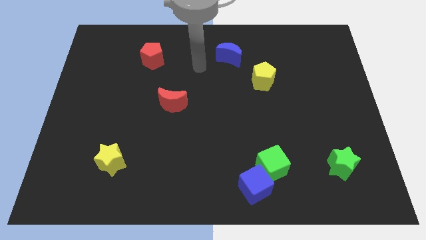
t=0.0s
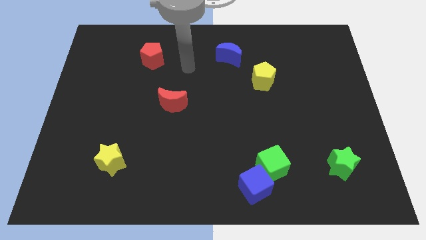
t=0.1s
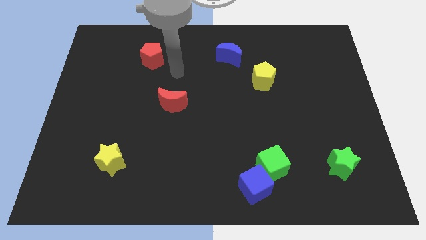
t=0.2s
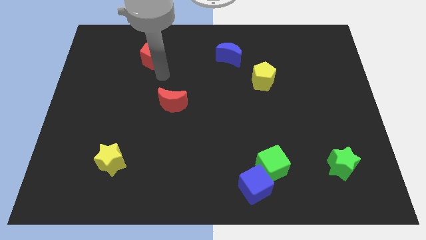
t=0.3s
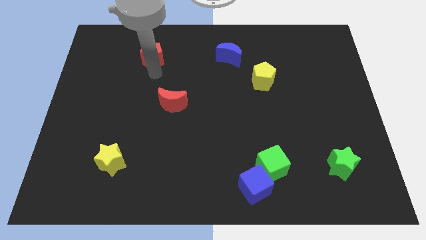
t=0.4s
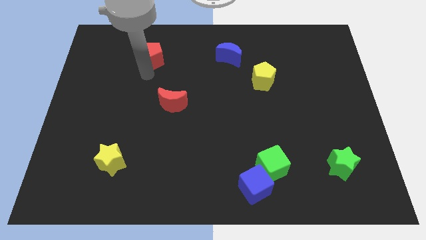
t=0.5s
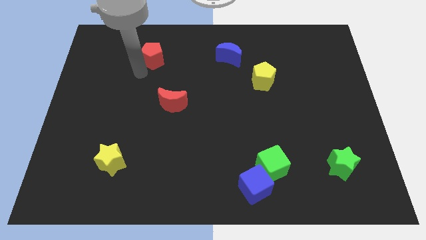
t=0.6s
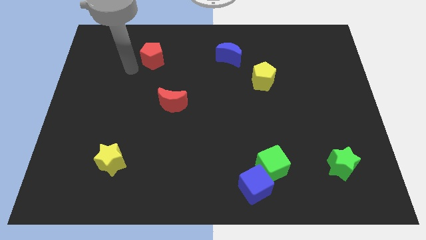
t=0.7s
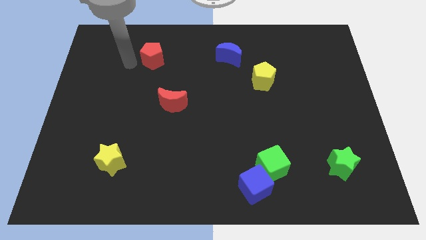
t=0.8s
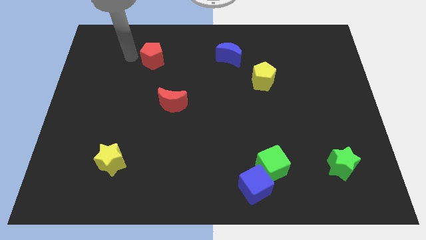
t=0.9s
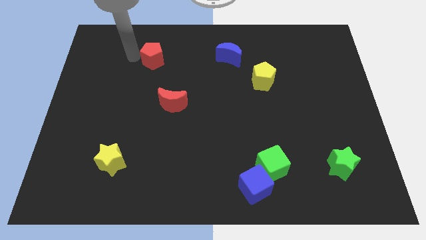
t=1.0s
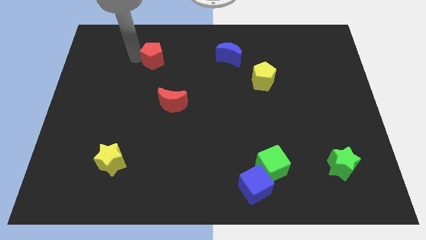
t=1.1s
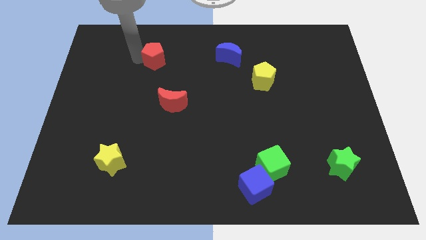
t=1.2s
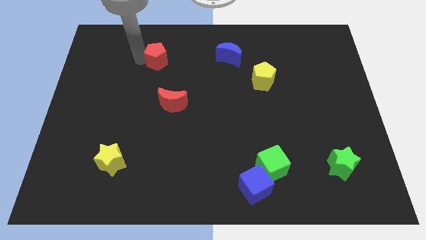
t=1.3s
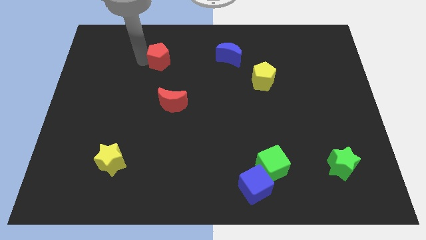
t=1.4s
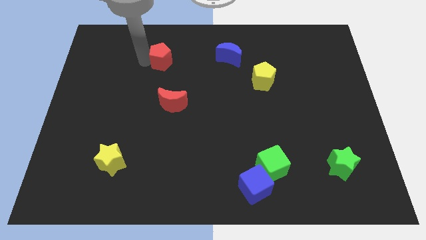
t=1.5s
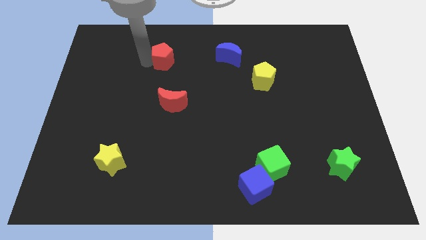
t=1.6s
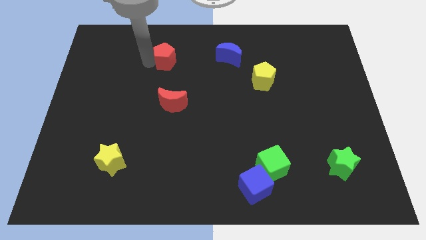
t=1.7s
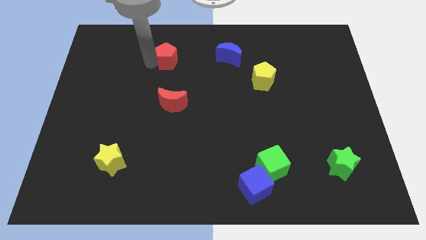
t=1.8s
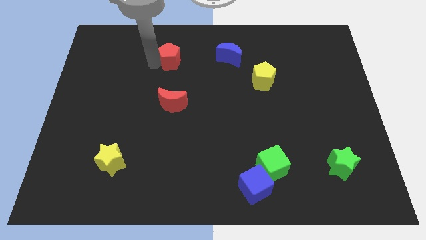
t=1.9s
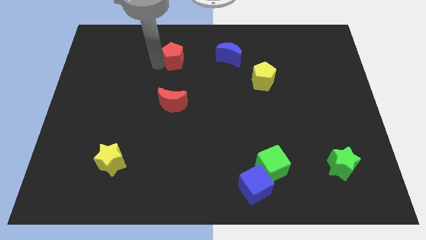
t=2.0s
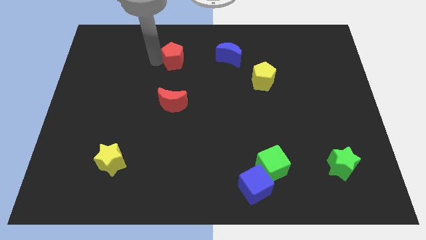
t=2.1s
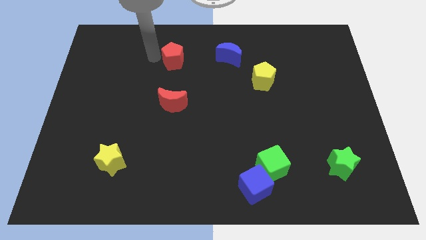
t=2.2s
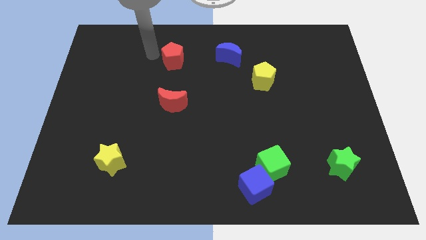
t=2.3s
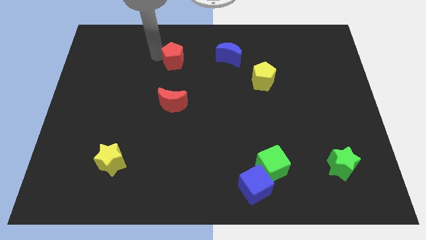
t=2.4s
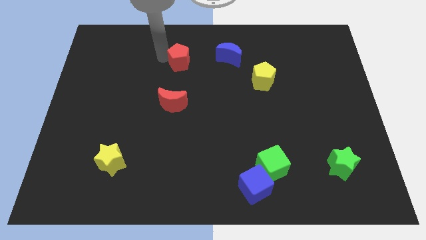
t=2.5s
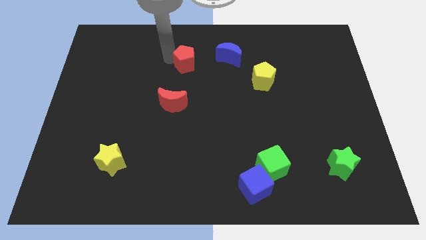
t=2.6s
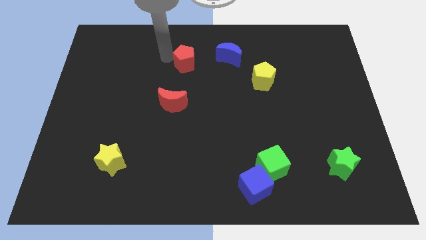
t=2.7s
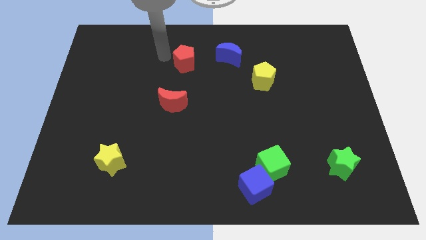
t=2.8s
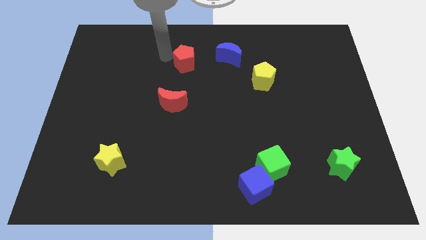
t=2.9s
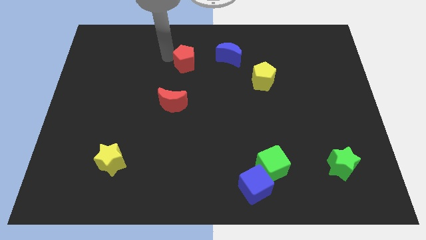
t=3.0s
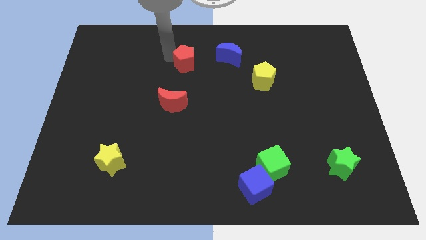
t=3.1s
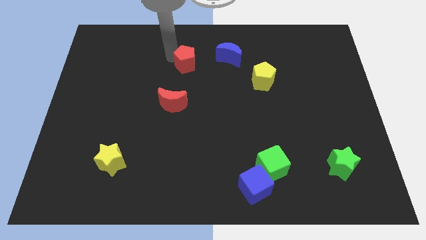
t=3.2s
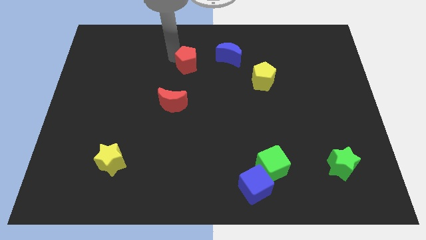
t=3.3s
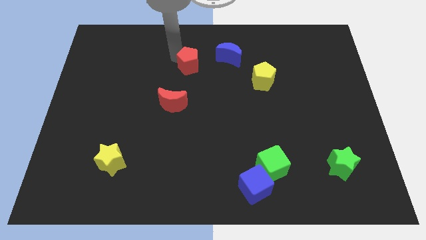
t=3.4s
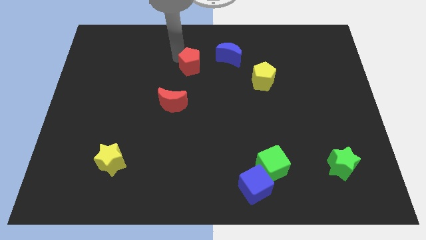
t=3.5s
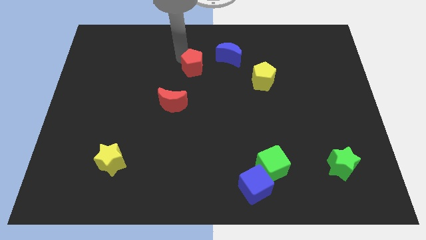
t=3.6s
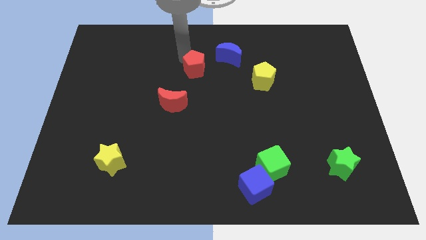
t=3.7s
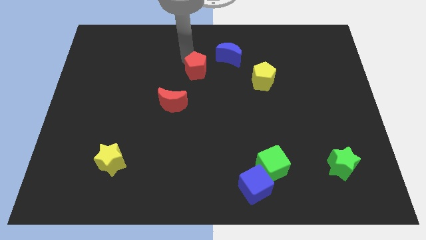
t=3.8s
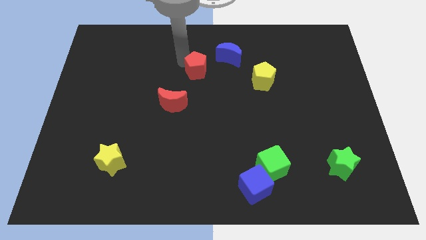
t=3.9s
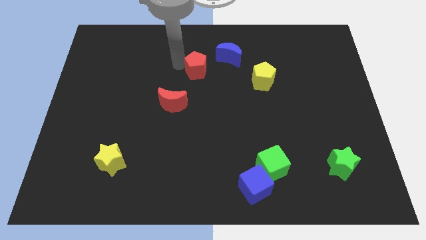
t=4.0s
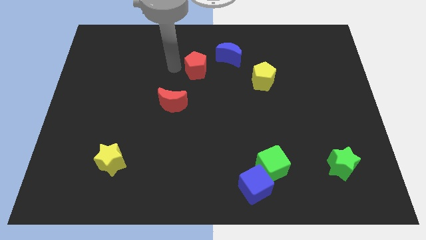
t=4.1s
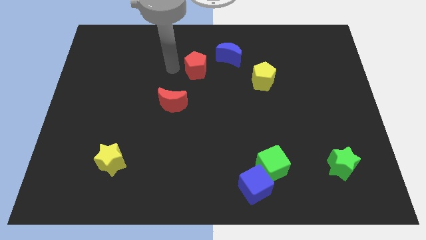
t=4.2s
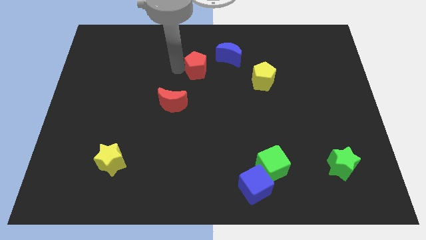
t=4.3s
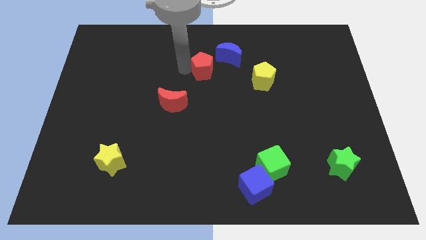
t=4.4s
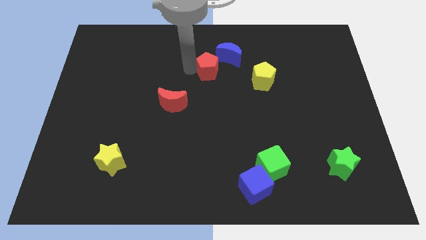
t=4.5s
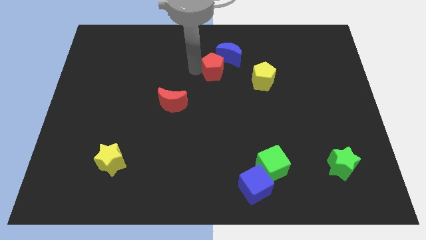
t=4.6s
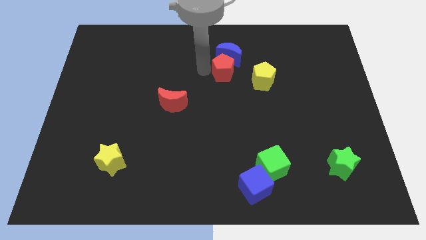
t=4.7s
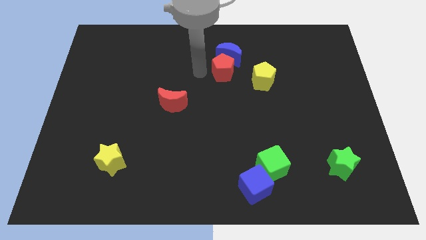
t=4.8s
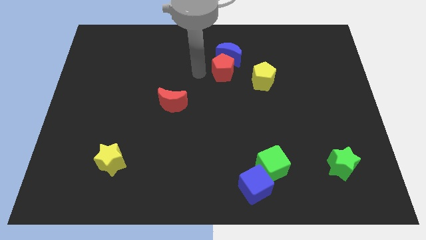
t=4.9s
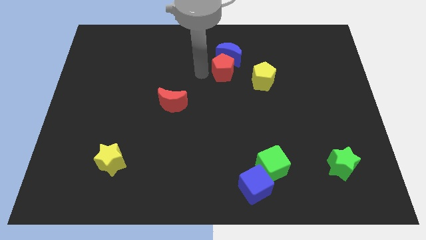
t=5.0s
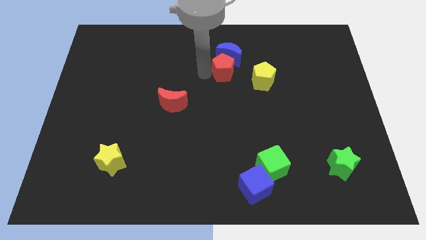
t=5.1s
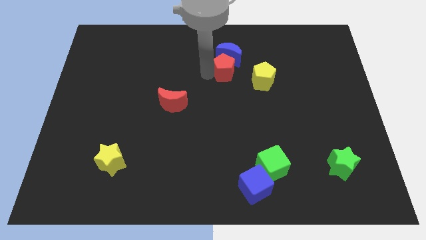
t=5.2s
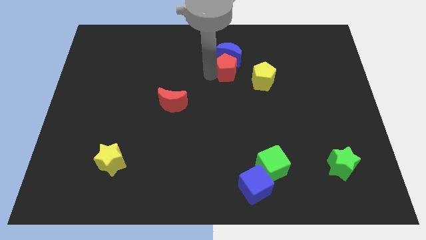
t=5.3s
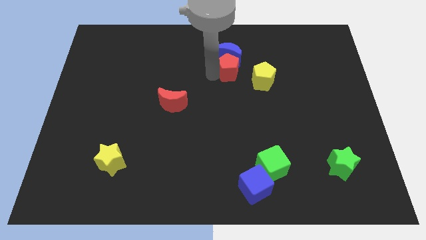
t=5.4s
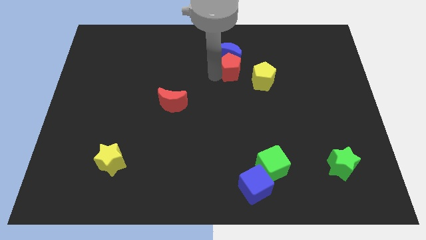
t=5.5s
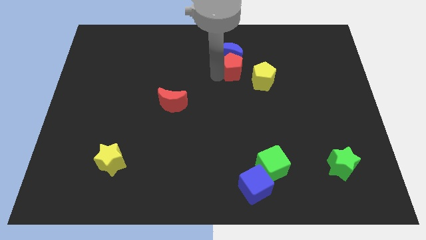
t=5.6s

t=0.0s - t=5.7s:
move the red pentagon to the right

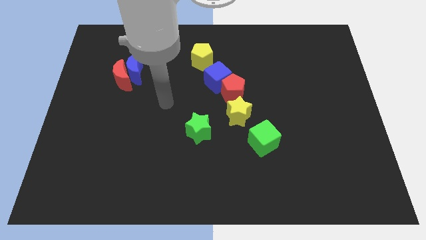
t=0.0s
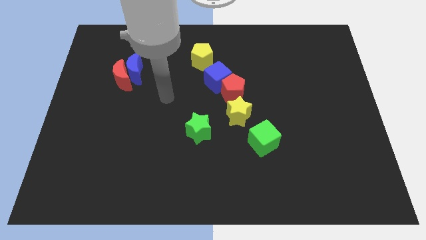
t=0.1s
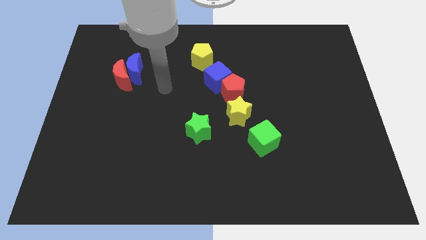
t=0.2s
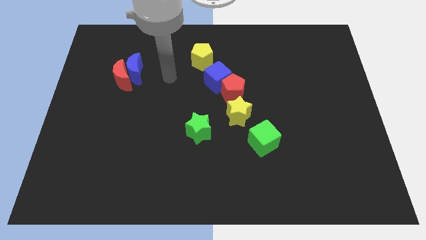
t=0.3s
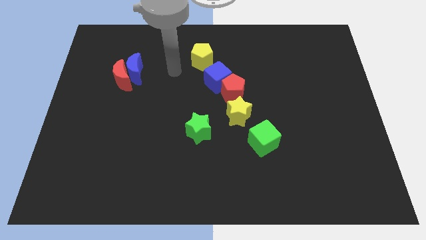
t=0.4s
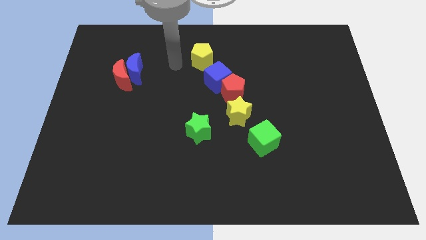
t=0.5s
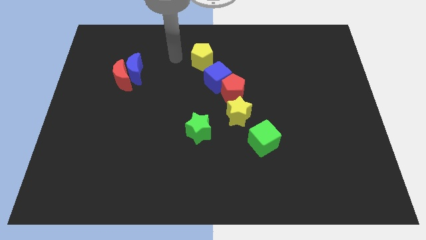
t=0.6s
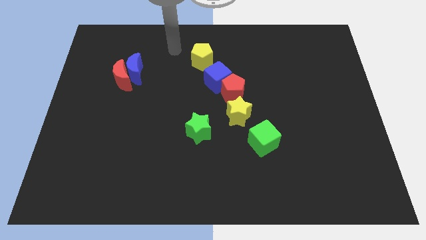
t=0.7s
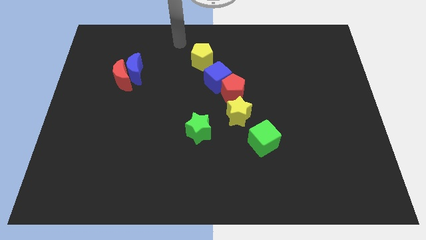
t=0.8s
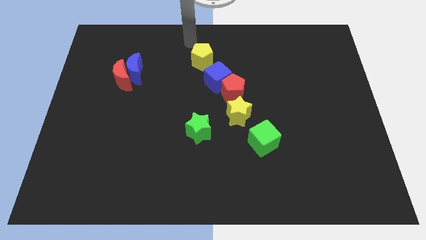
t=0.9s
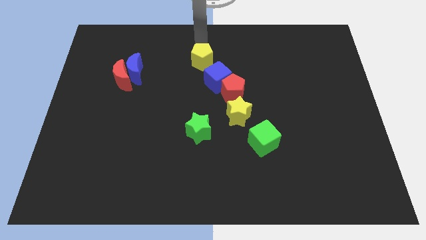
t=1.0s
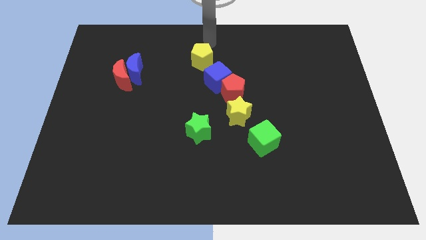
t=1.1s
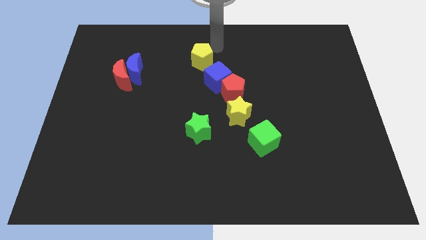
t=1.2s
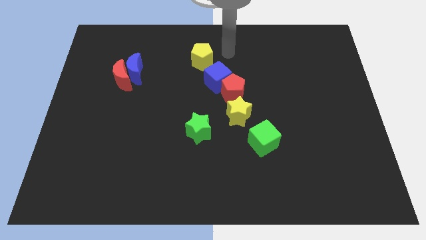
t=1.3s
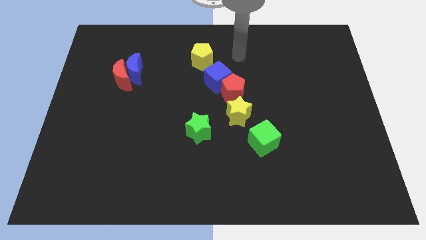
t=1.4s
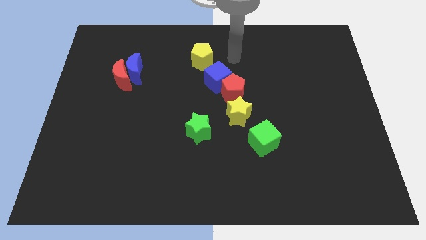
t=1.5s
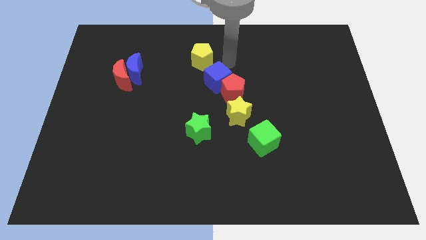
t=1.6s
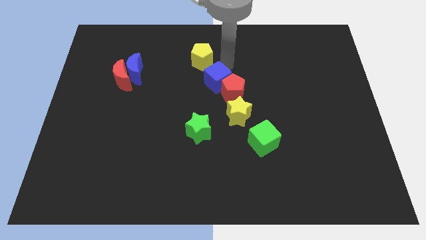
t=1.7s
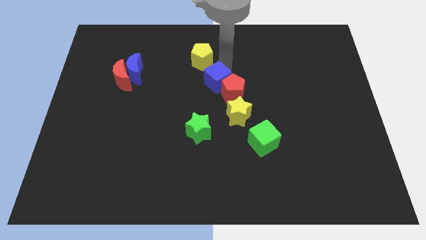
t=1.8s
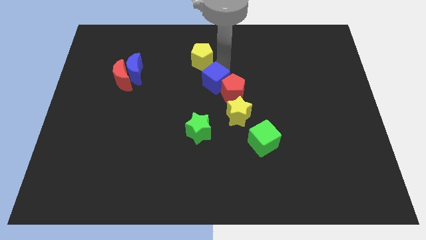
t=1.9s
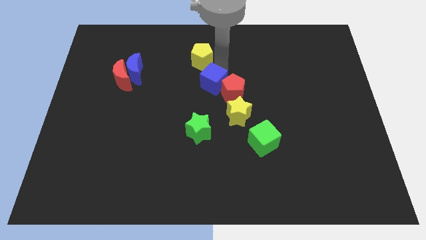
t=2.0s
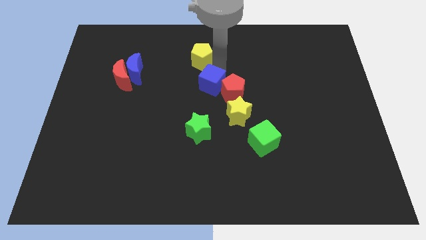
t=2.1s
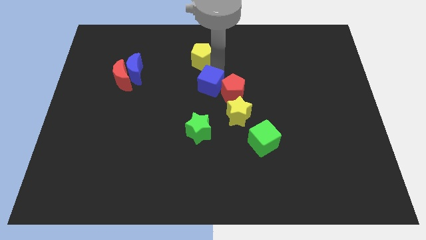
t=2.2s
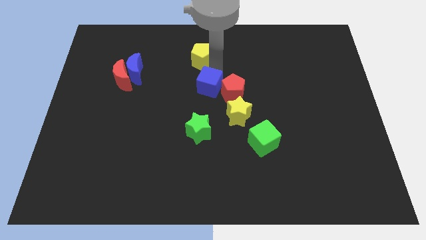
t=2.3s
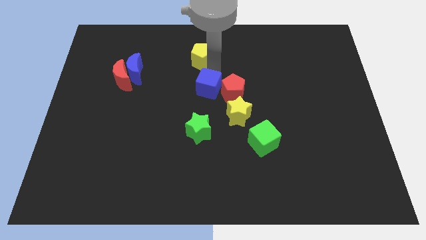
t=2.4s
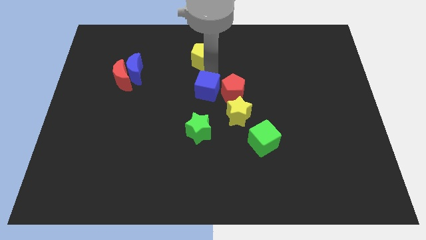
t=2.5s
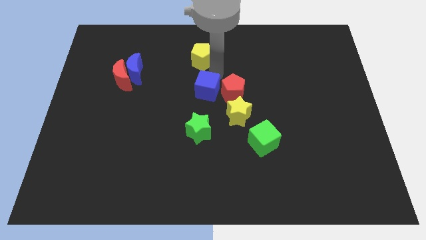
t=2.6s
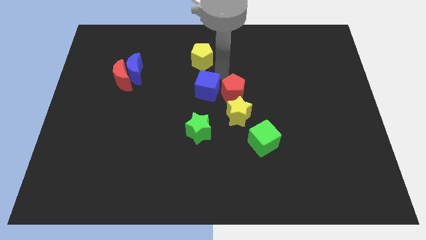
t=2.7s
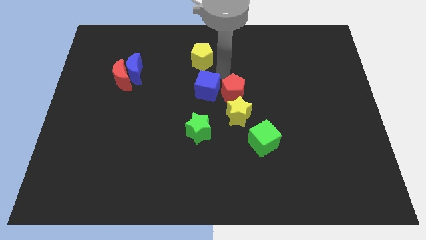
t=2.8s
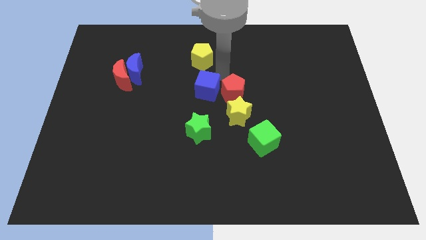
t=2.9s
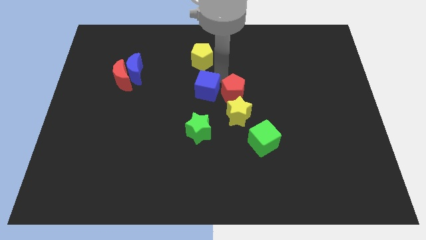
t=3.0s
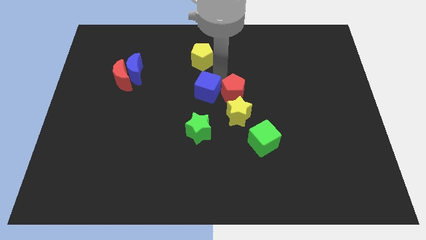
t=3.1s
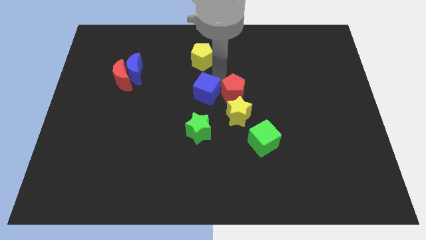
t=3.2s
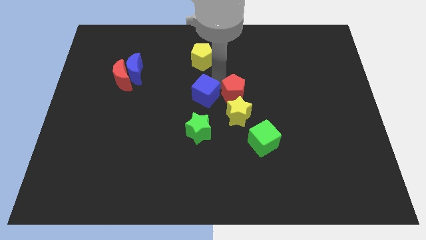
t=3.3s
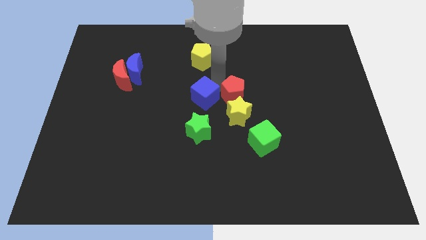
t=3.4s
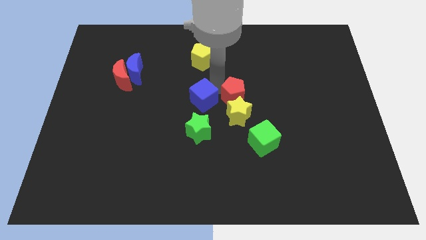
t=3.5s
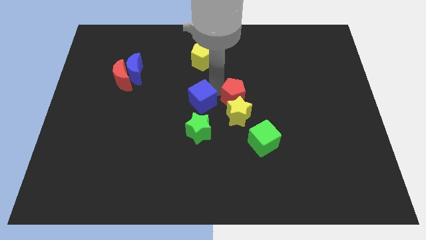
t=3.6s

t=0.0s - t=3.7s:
slightly push the blue cube down and then to the left
